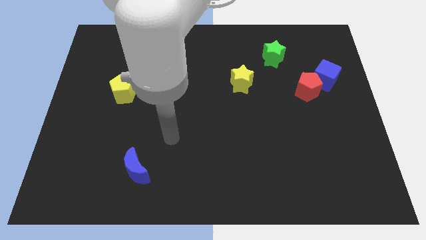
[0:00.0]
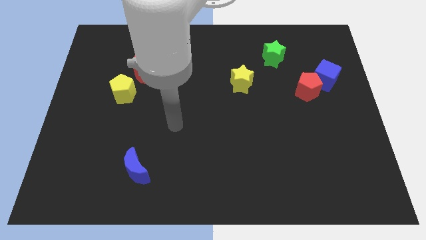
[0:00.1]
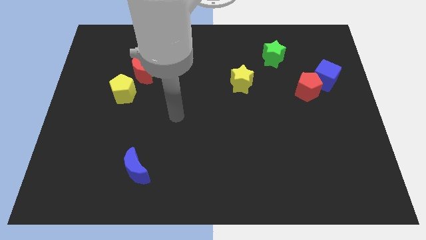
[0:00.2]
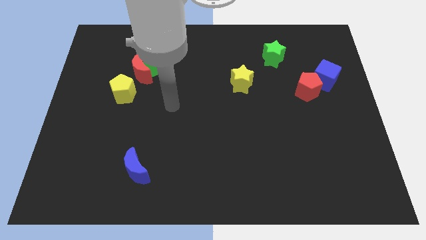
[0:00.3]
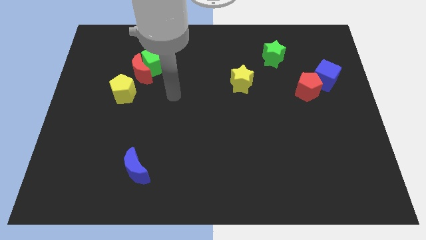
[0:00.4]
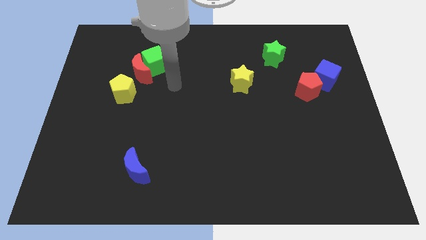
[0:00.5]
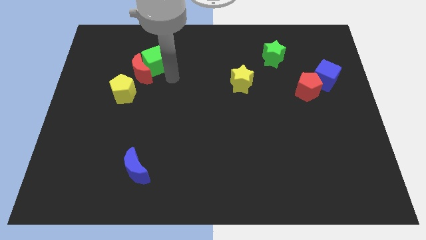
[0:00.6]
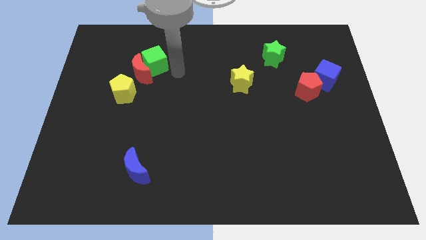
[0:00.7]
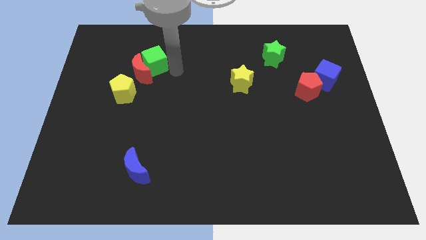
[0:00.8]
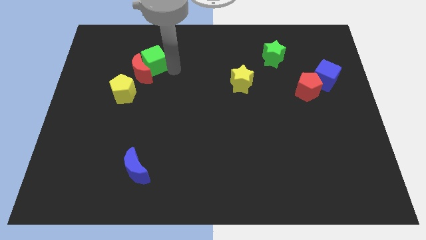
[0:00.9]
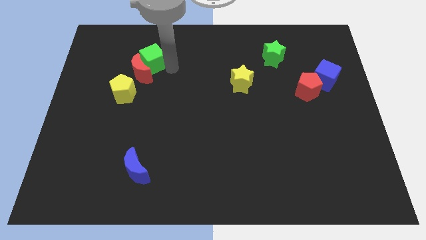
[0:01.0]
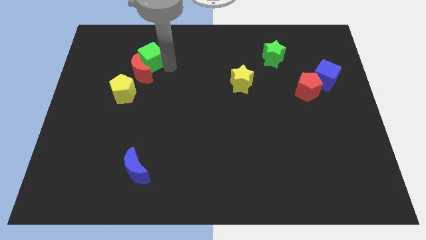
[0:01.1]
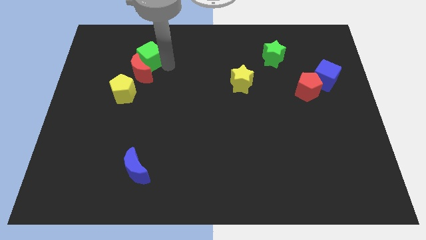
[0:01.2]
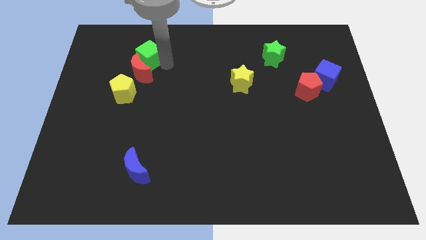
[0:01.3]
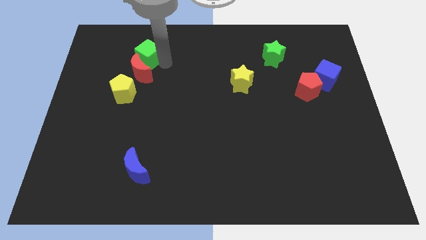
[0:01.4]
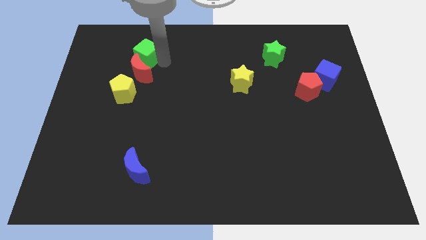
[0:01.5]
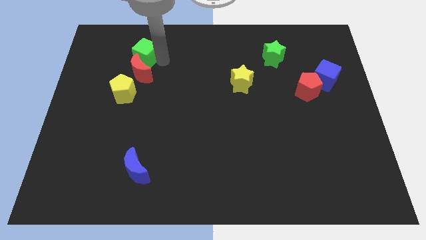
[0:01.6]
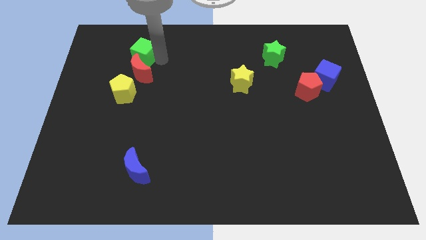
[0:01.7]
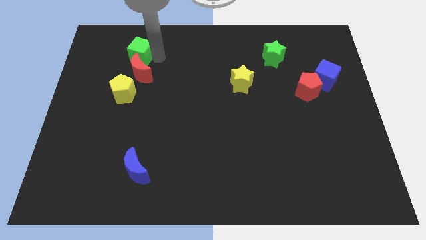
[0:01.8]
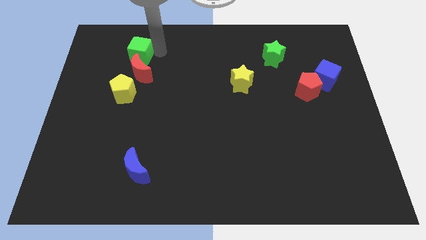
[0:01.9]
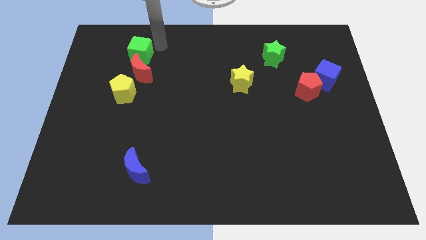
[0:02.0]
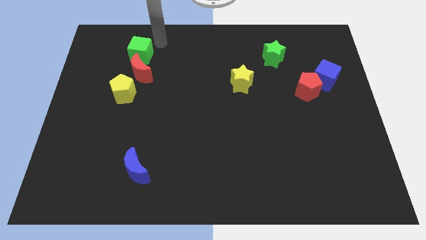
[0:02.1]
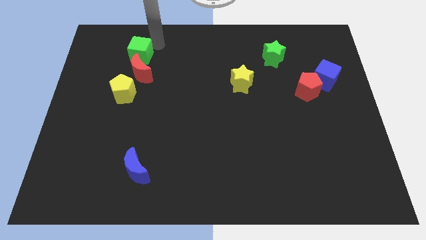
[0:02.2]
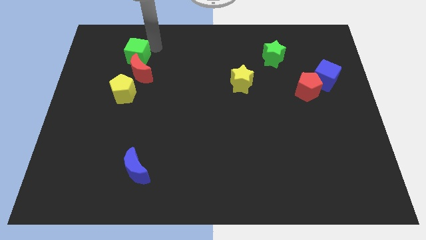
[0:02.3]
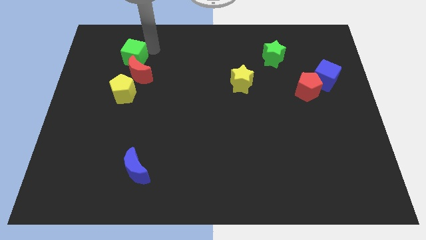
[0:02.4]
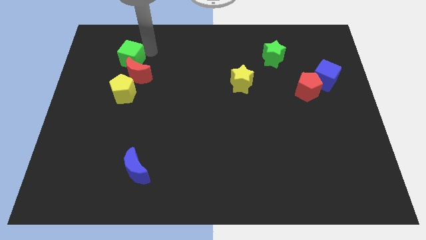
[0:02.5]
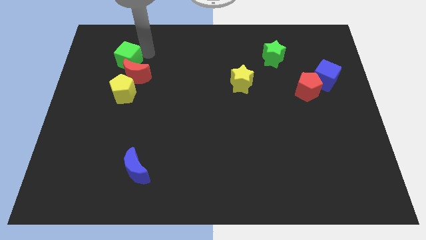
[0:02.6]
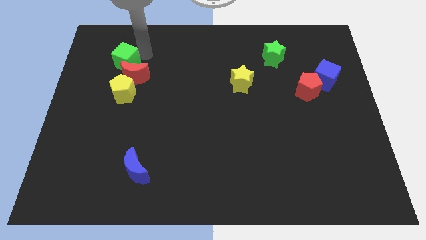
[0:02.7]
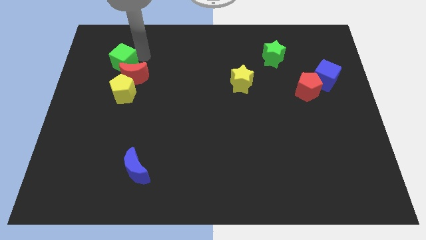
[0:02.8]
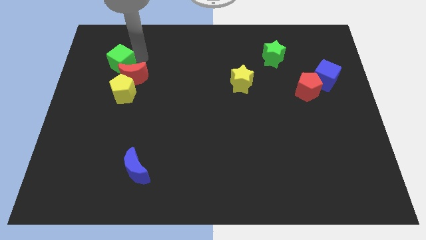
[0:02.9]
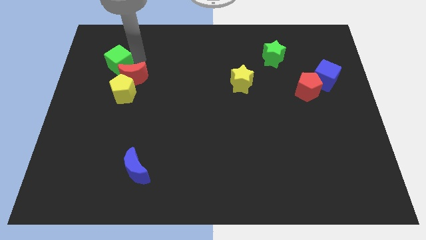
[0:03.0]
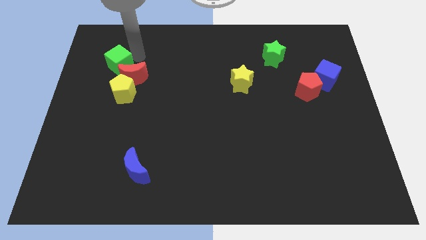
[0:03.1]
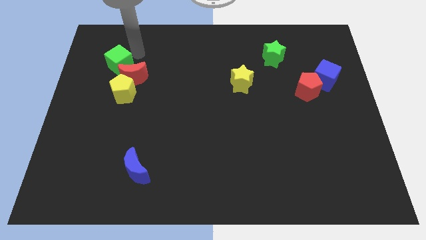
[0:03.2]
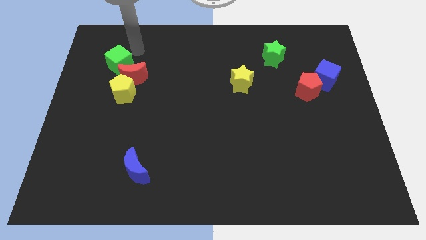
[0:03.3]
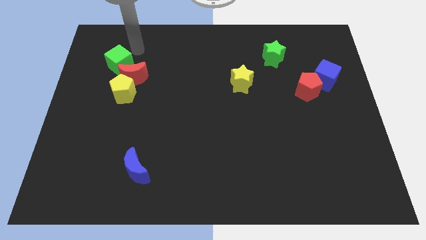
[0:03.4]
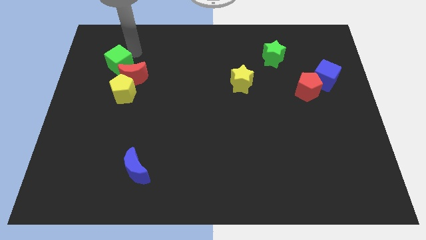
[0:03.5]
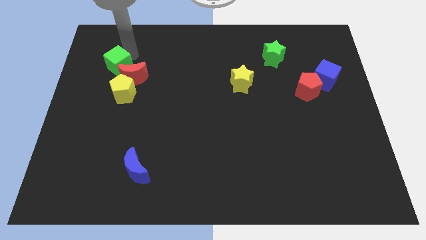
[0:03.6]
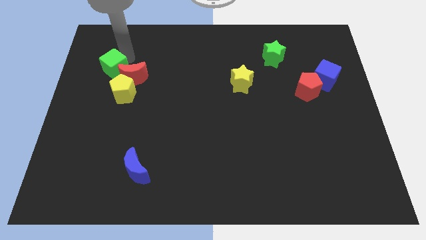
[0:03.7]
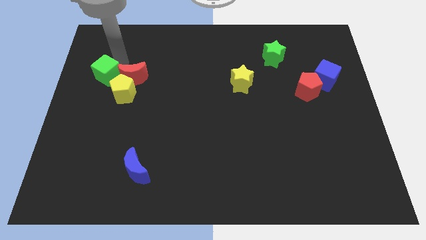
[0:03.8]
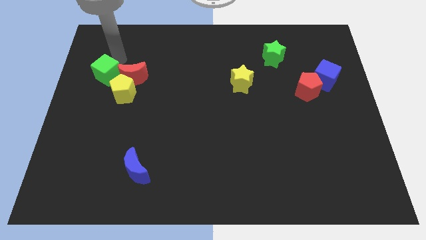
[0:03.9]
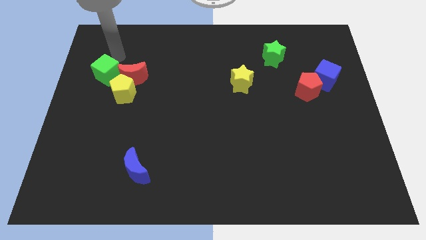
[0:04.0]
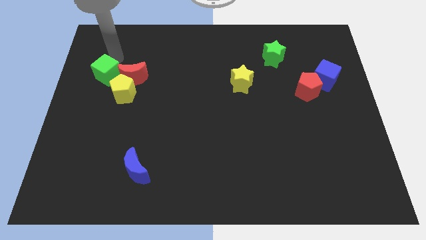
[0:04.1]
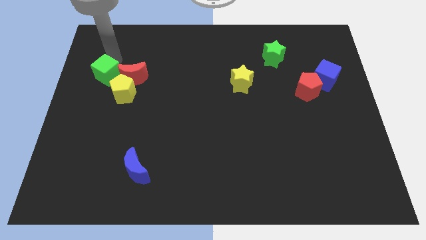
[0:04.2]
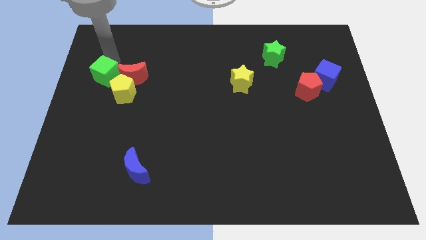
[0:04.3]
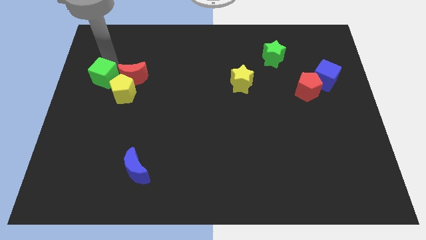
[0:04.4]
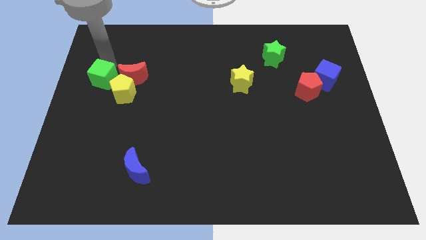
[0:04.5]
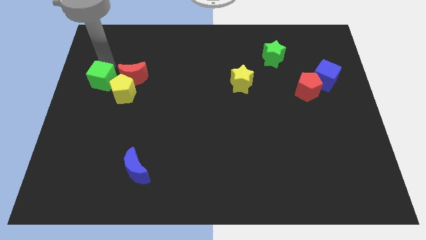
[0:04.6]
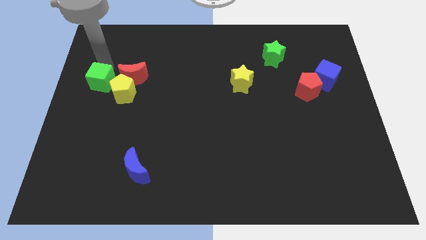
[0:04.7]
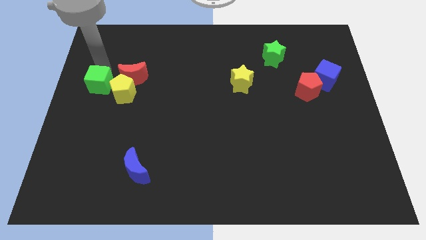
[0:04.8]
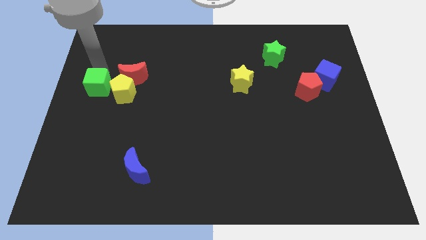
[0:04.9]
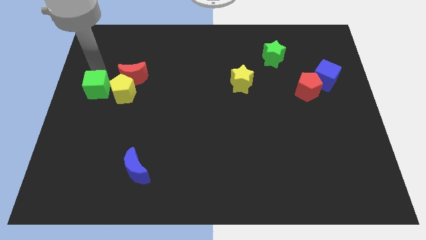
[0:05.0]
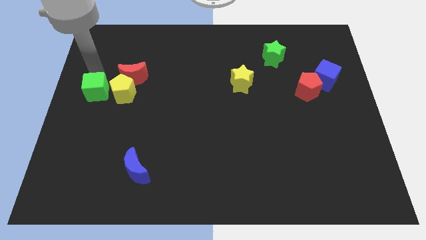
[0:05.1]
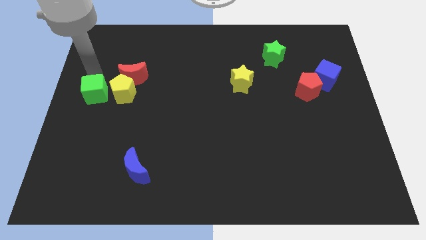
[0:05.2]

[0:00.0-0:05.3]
put the green cube to the bottom left side of the yellow pentagon

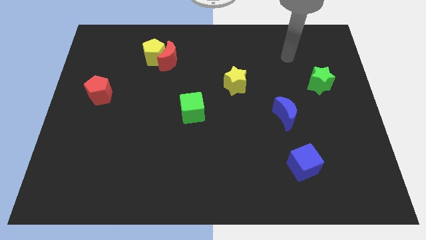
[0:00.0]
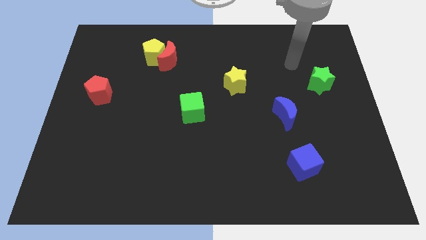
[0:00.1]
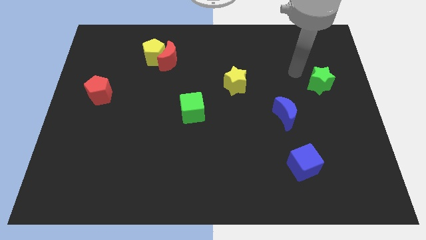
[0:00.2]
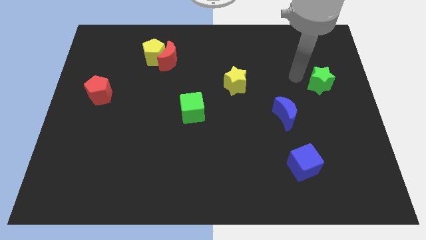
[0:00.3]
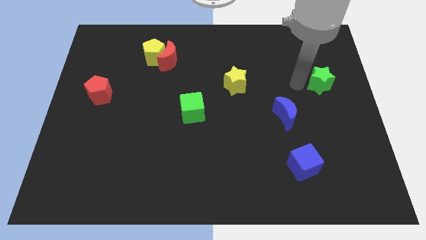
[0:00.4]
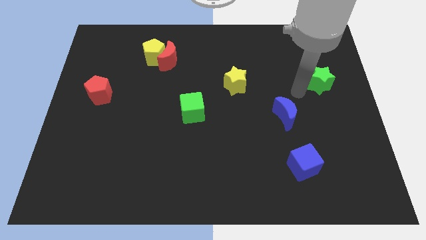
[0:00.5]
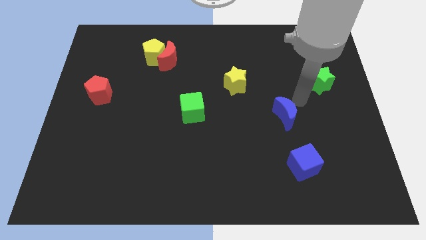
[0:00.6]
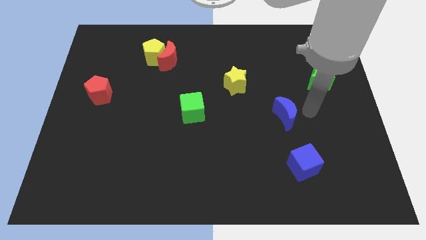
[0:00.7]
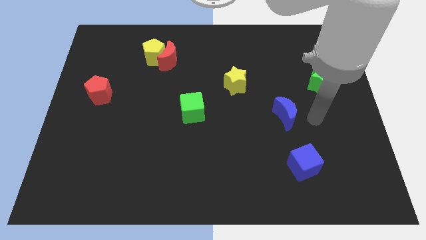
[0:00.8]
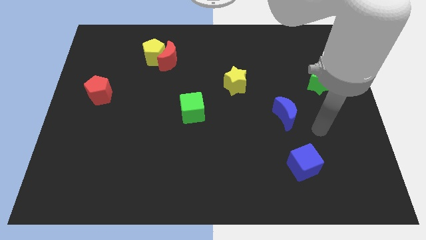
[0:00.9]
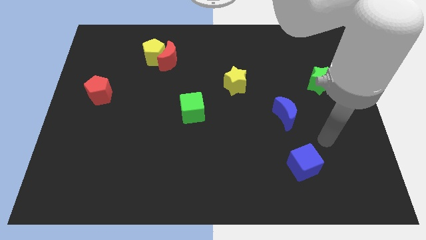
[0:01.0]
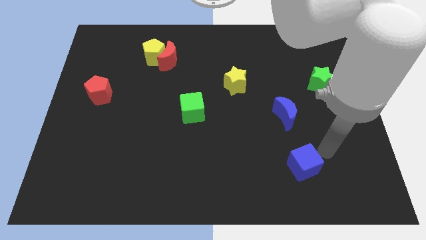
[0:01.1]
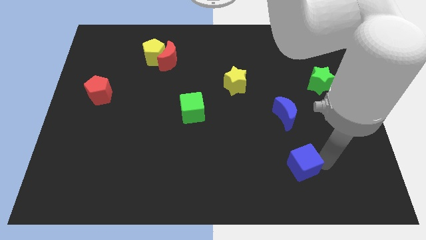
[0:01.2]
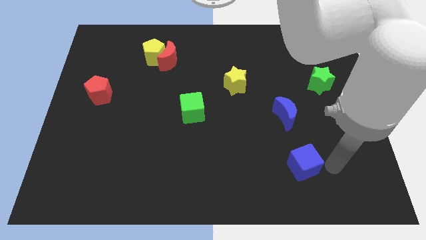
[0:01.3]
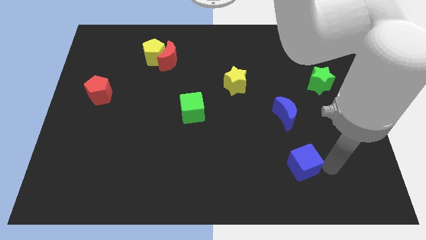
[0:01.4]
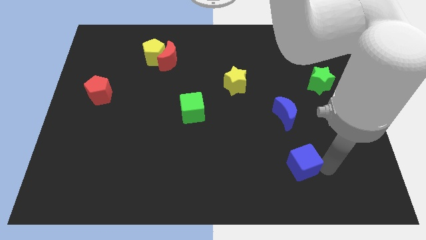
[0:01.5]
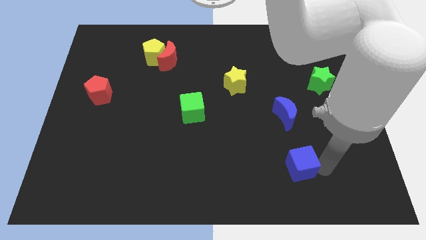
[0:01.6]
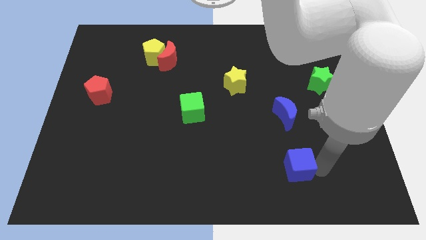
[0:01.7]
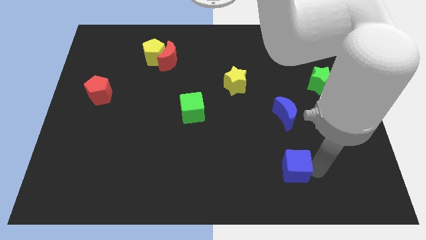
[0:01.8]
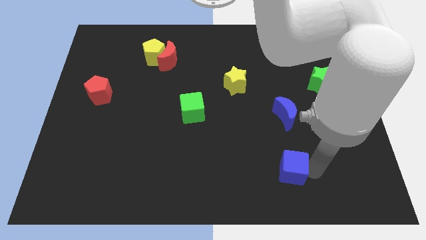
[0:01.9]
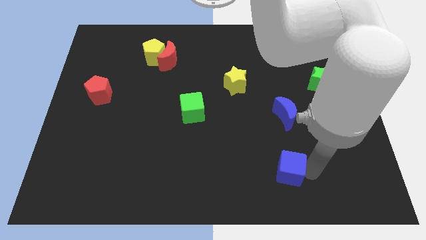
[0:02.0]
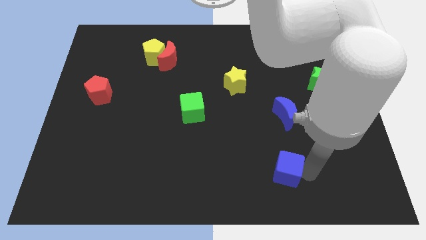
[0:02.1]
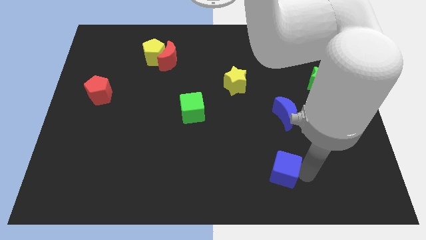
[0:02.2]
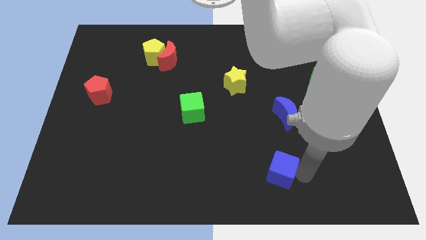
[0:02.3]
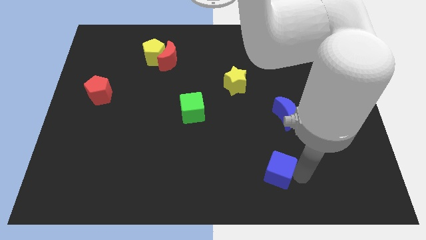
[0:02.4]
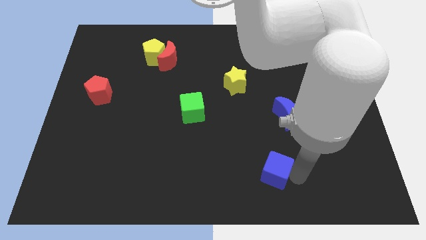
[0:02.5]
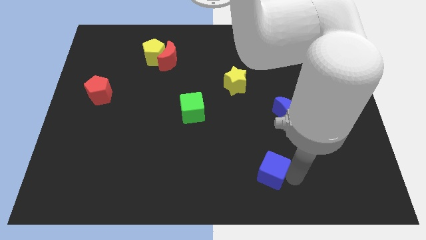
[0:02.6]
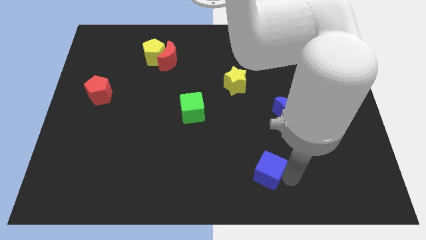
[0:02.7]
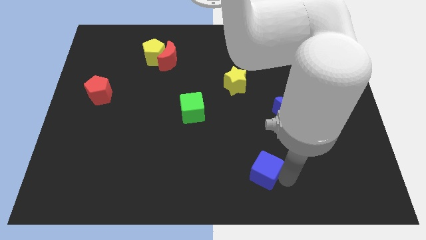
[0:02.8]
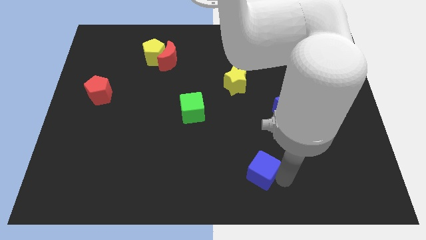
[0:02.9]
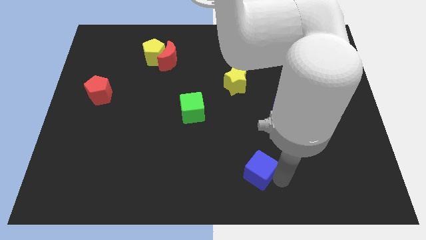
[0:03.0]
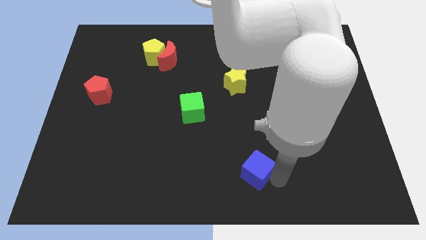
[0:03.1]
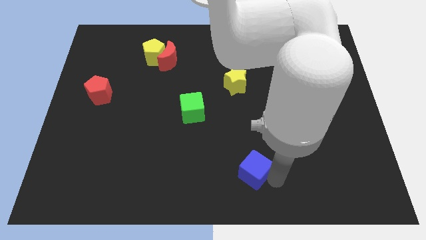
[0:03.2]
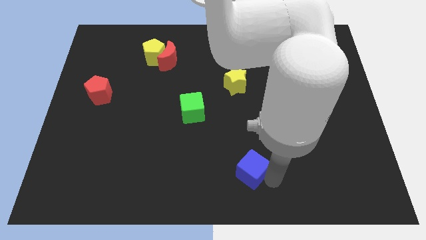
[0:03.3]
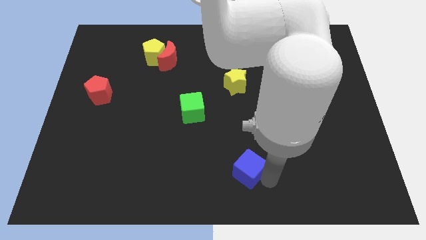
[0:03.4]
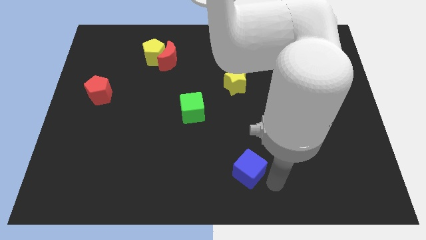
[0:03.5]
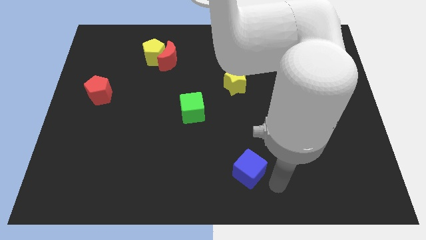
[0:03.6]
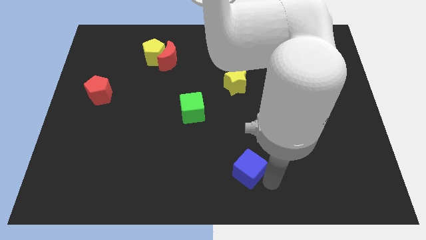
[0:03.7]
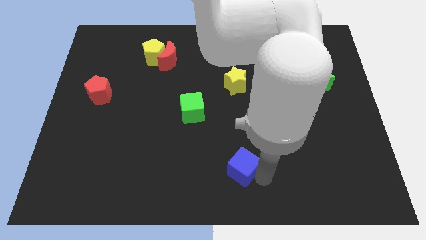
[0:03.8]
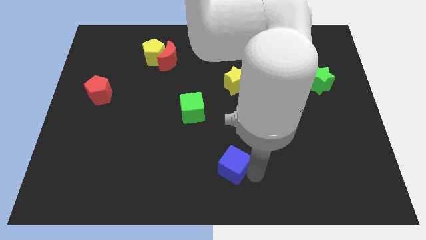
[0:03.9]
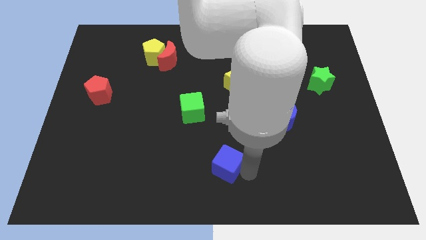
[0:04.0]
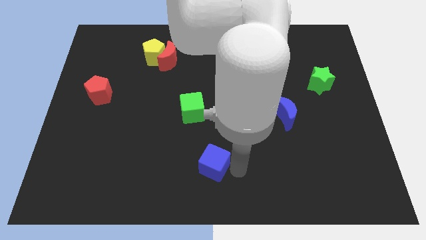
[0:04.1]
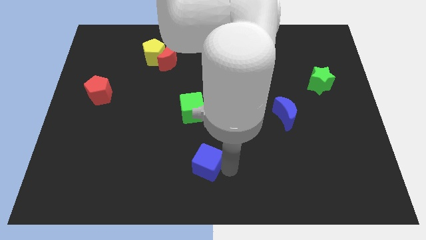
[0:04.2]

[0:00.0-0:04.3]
put the blue cube below the green cube
